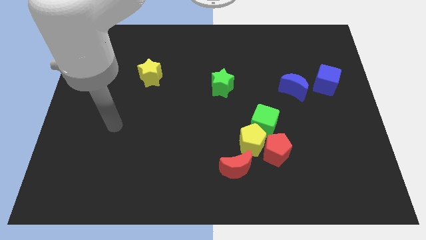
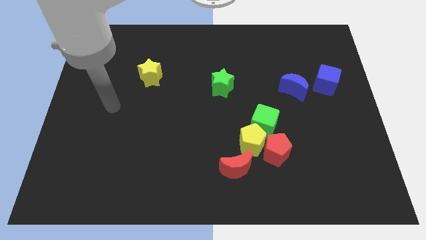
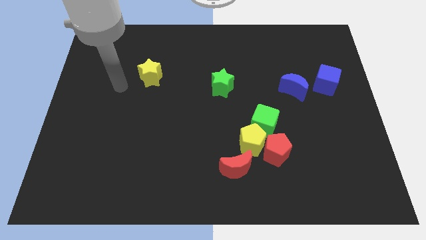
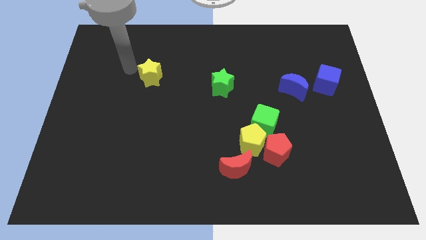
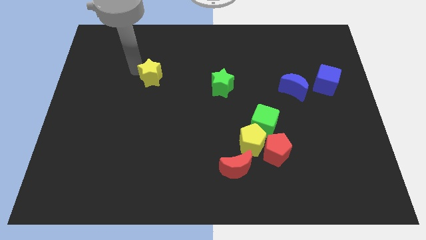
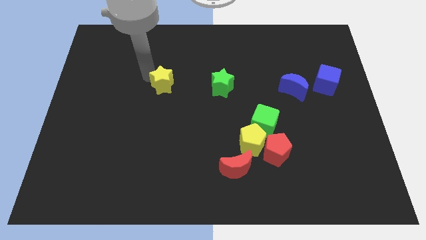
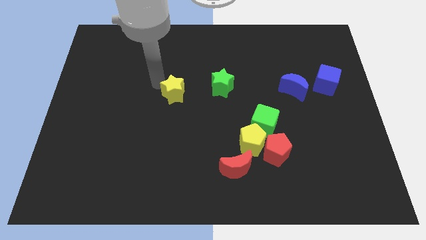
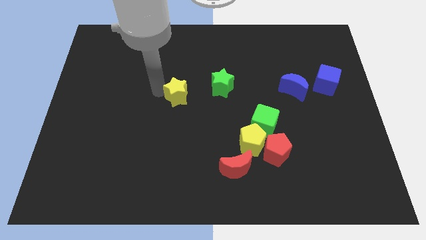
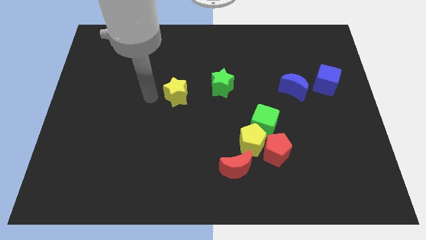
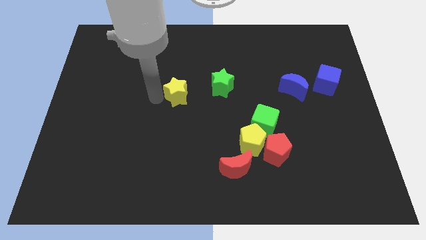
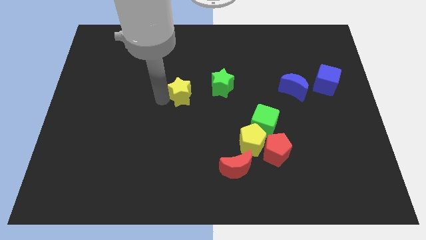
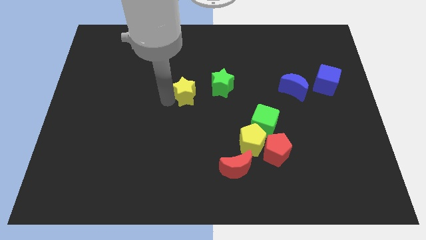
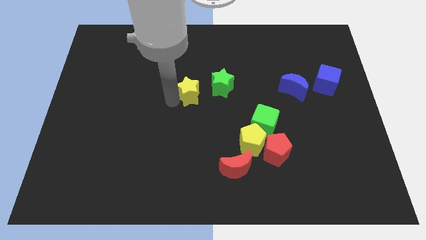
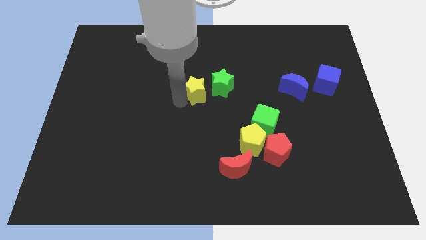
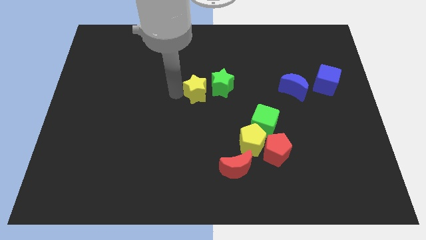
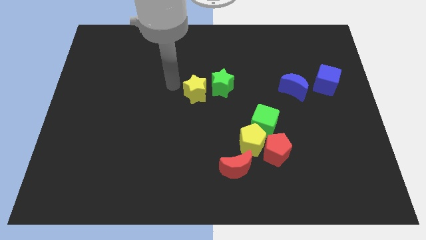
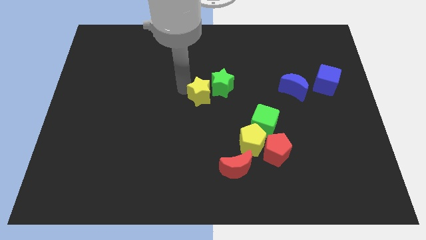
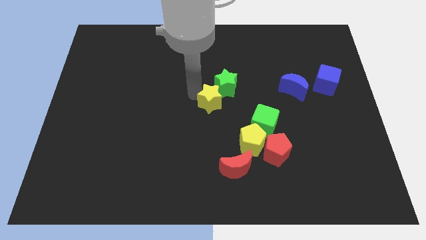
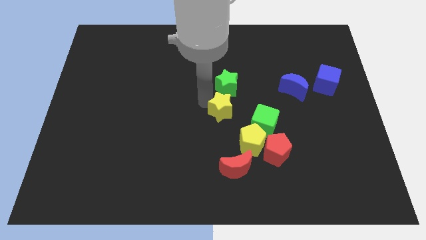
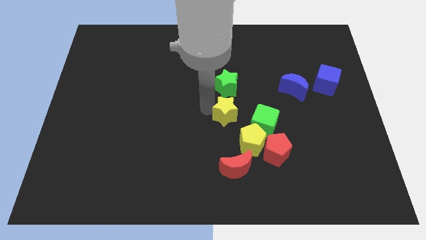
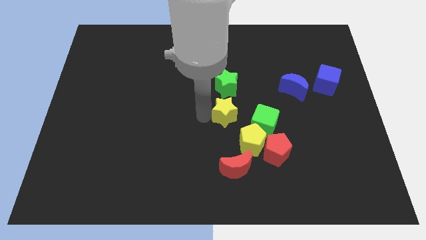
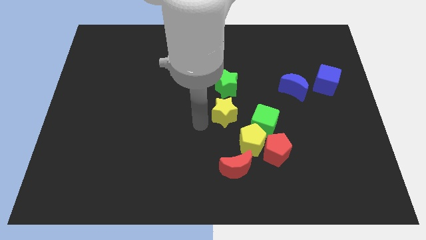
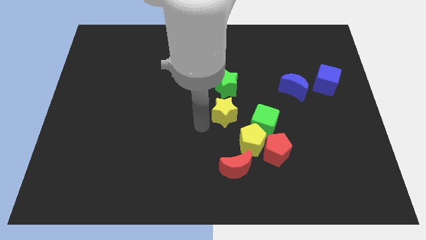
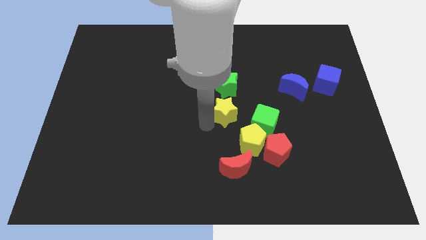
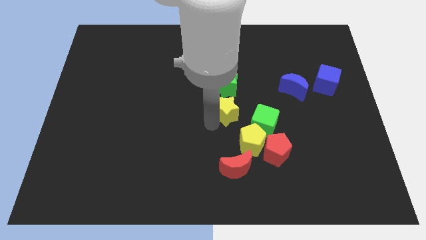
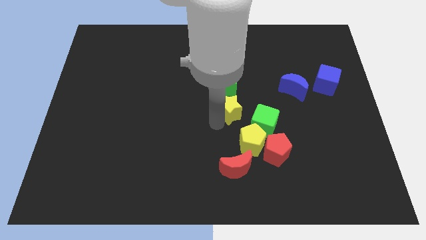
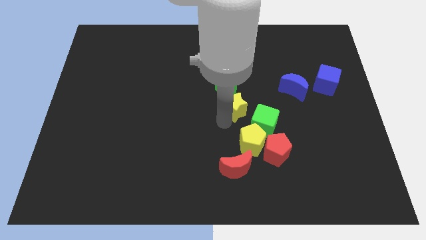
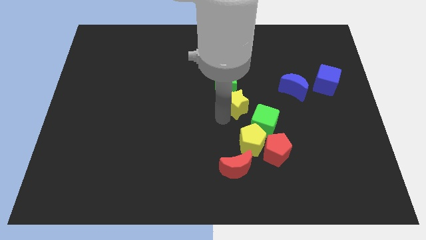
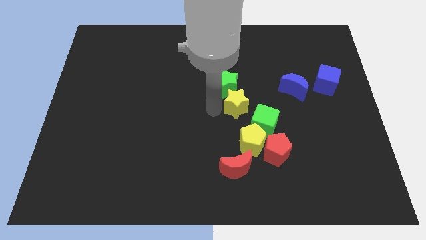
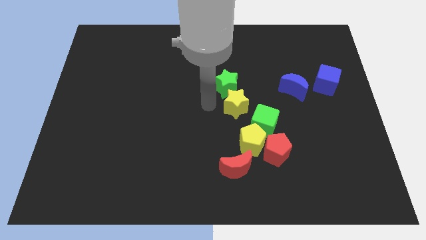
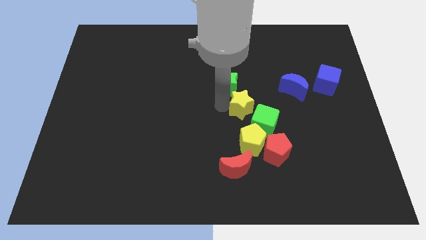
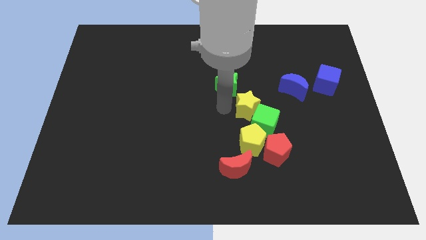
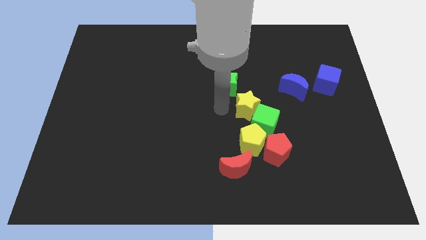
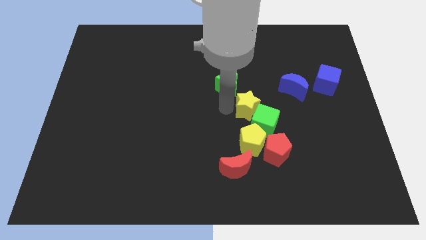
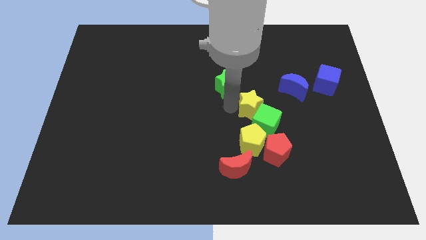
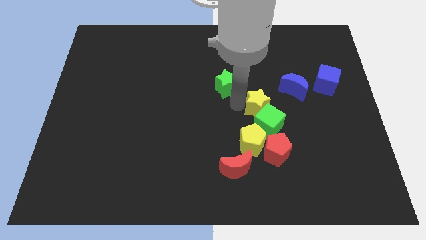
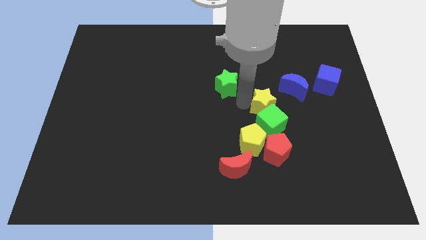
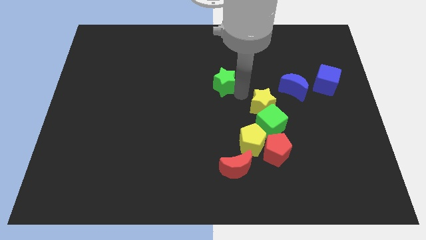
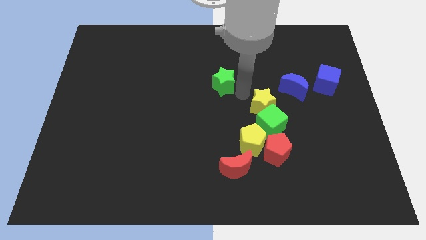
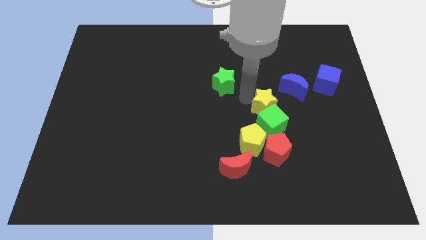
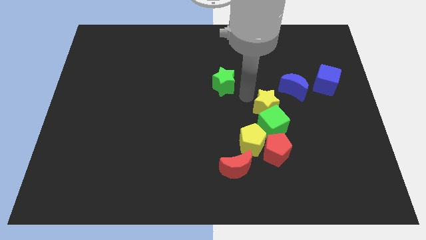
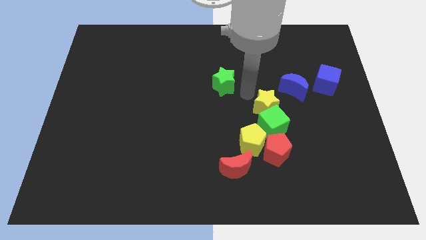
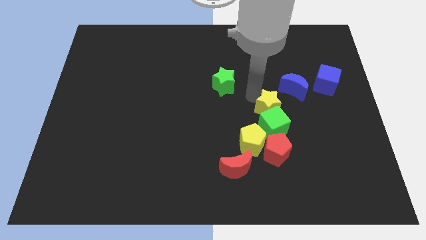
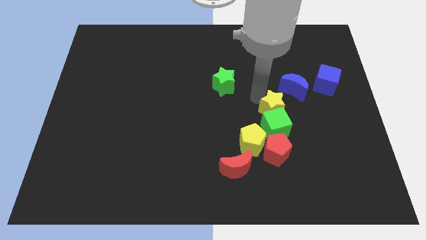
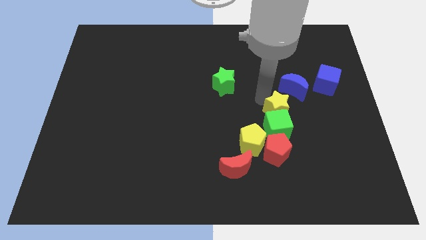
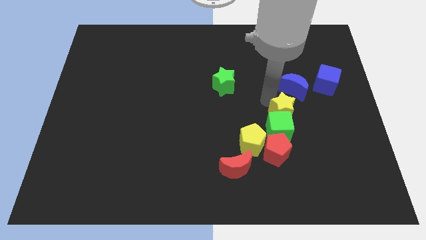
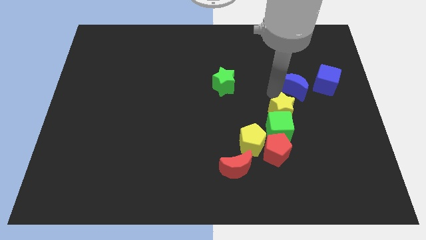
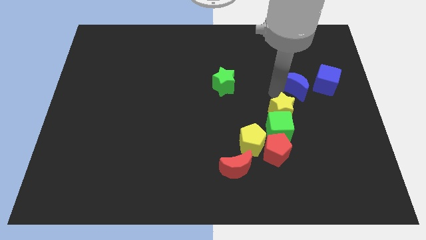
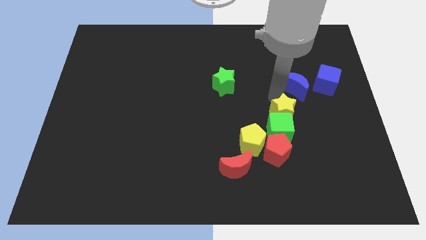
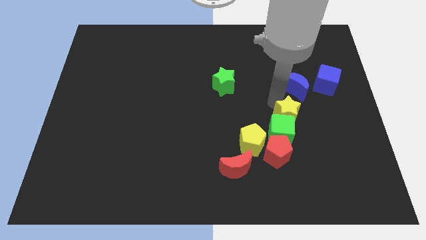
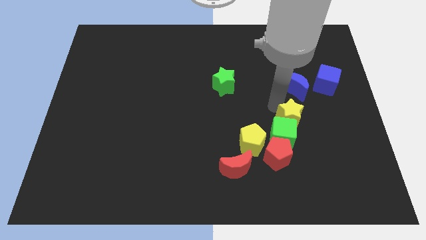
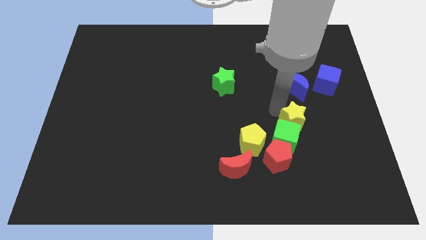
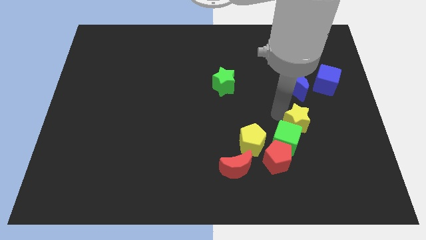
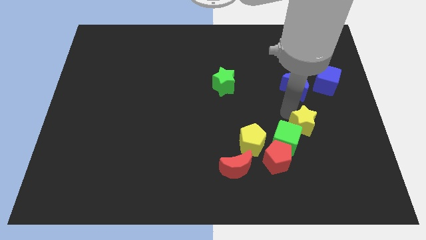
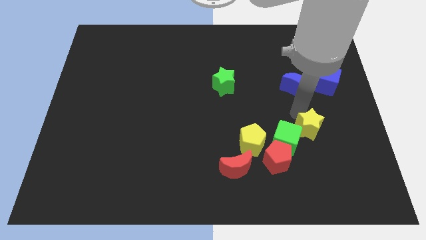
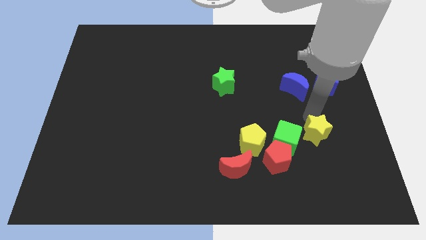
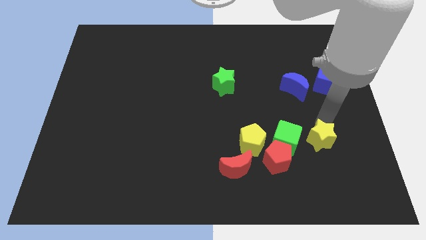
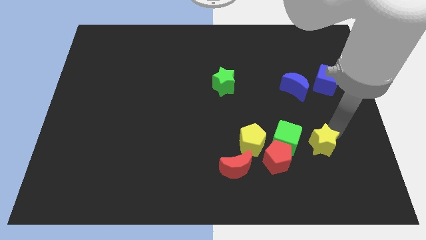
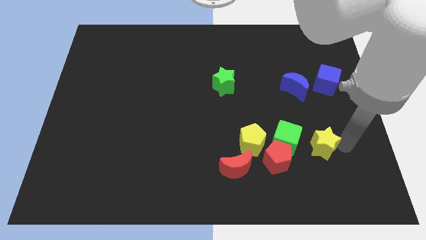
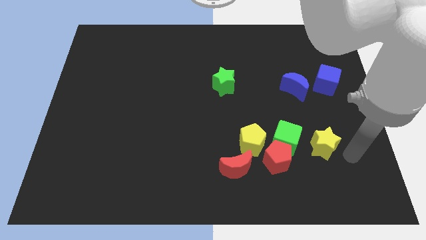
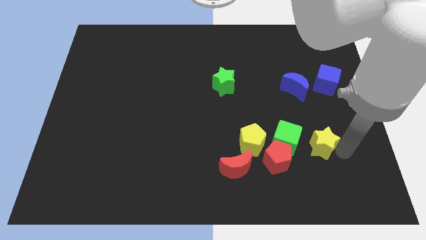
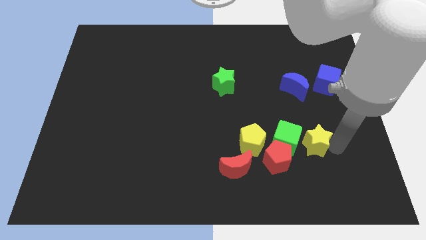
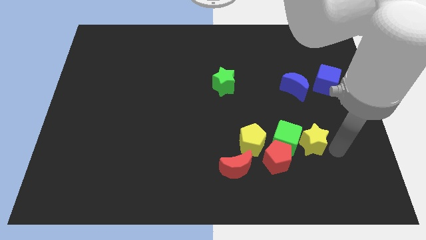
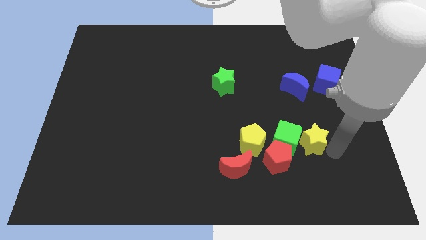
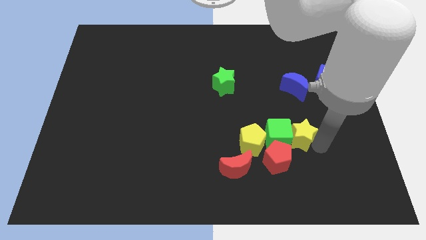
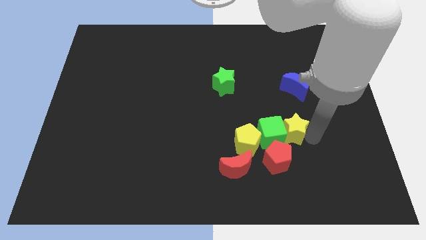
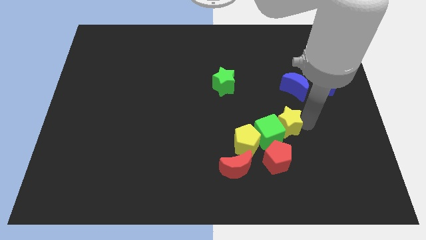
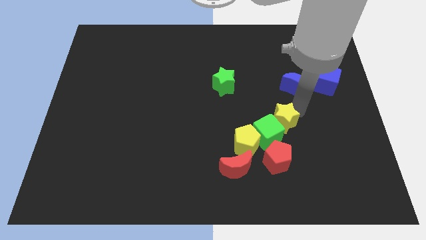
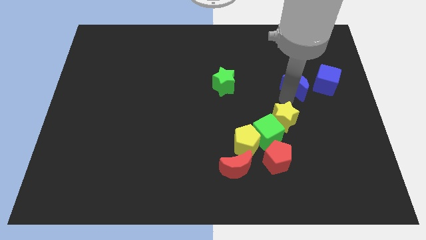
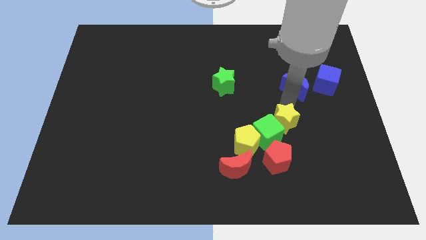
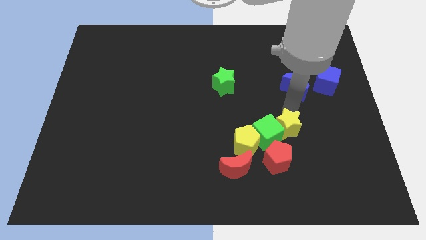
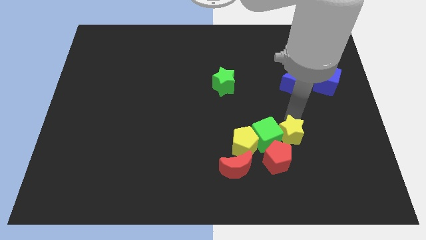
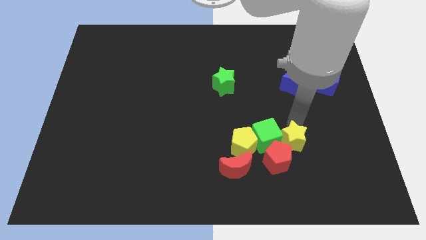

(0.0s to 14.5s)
move the yellow star towards the red pentagon

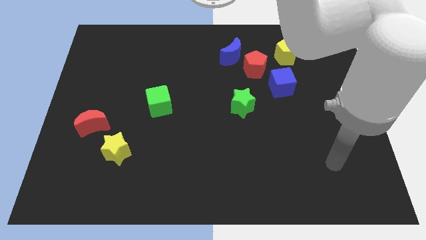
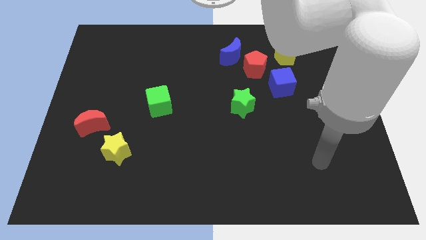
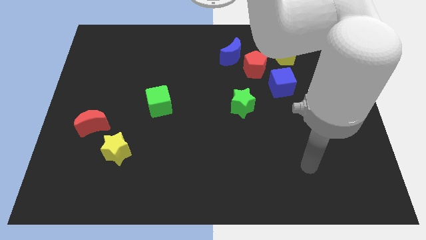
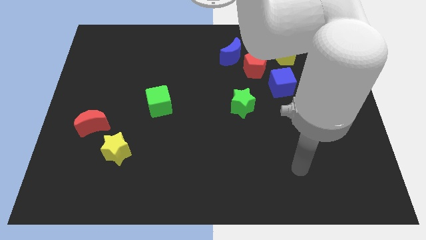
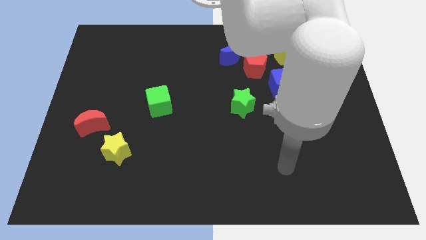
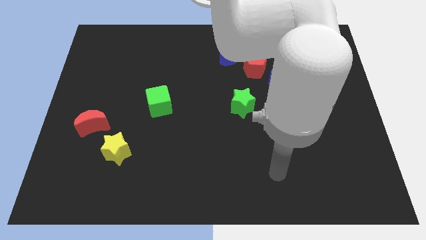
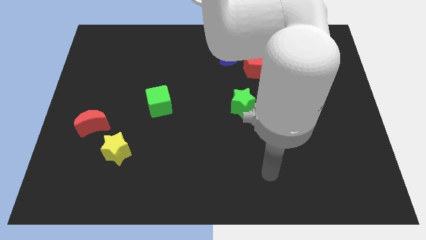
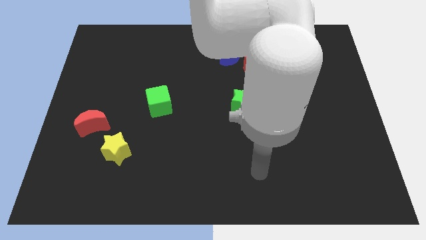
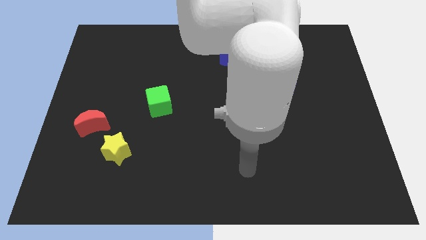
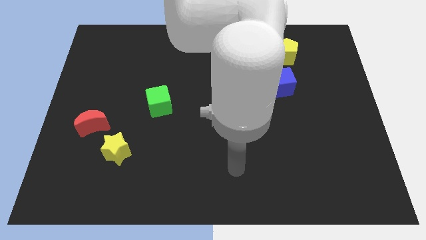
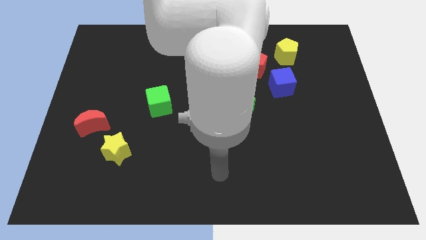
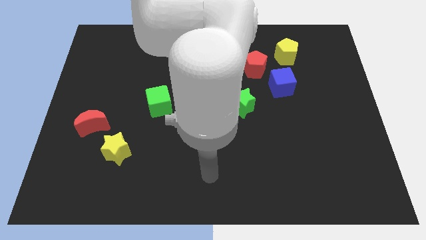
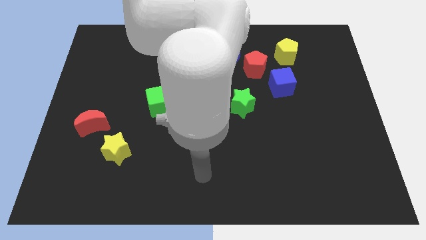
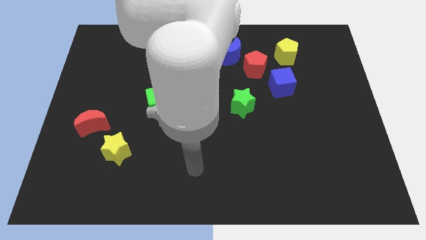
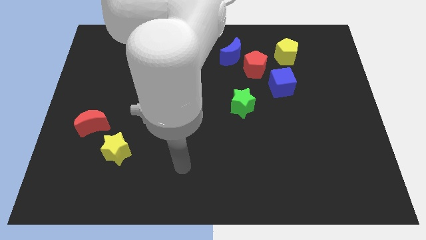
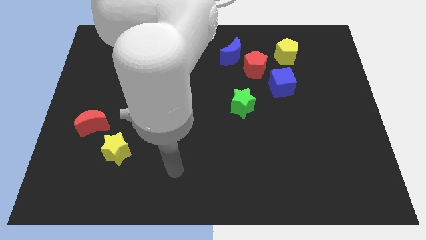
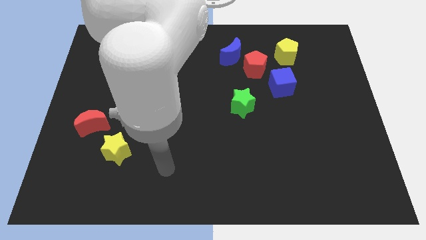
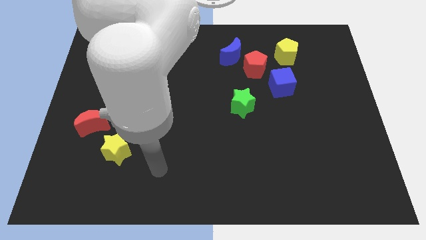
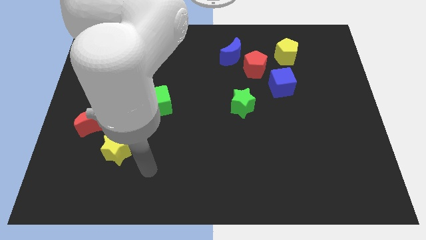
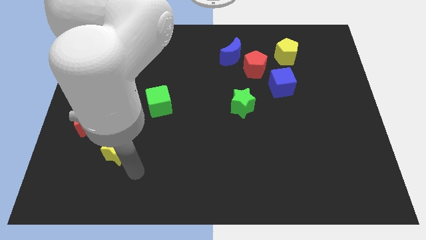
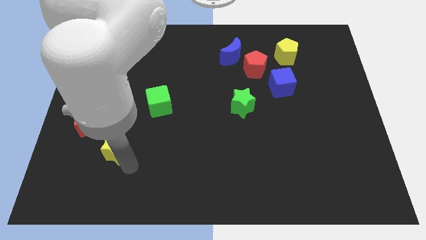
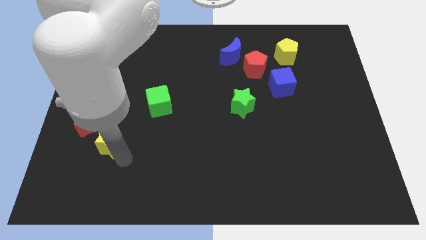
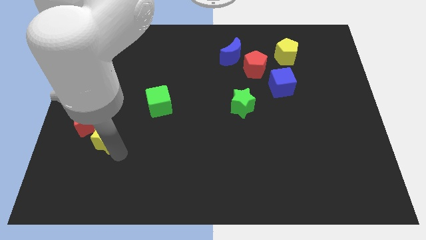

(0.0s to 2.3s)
push the yellow star to the red moon
